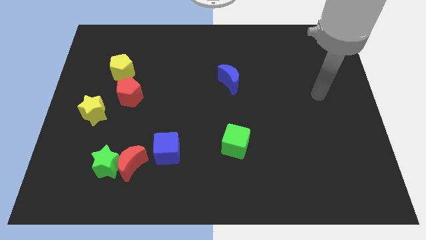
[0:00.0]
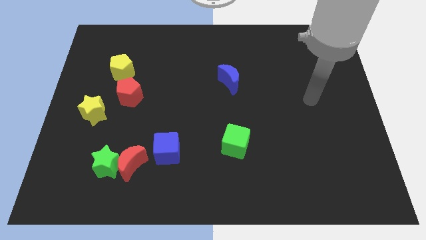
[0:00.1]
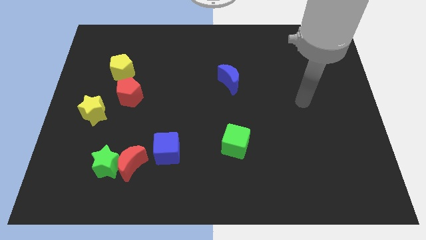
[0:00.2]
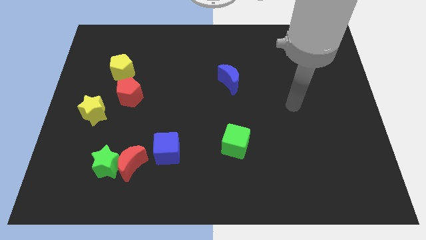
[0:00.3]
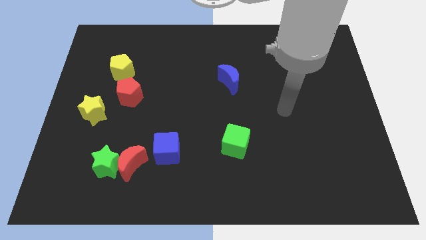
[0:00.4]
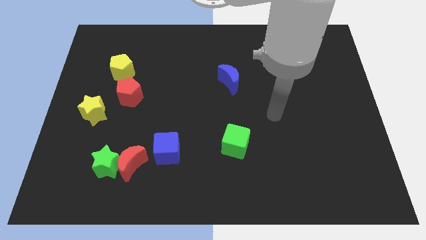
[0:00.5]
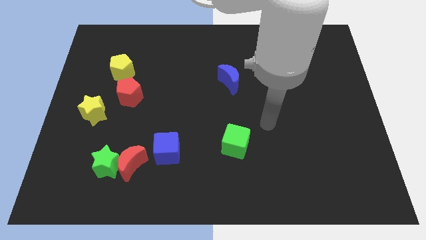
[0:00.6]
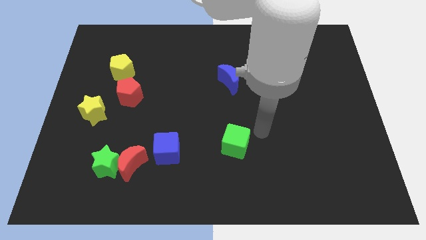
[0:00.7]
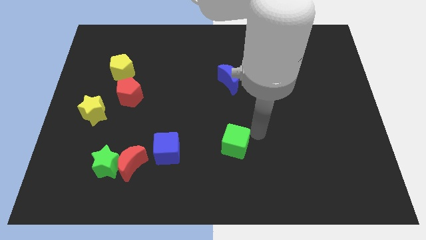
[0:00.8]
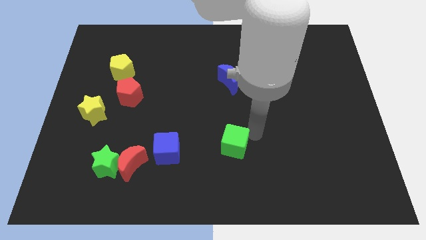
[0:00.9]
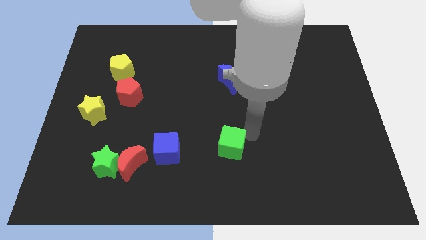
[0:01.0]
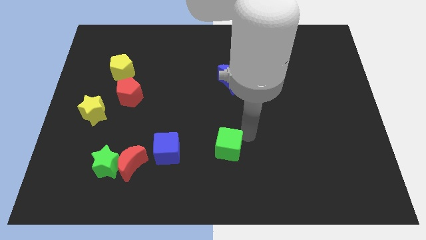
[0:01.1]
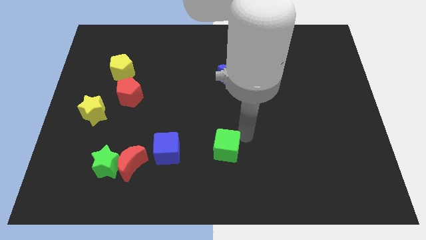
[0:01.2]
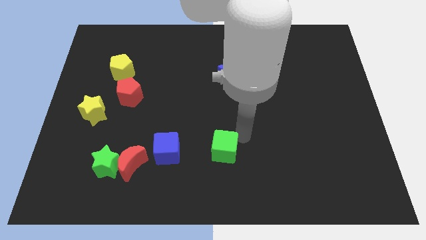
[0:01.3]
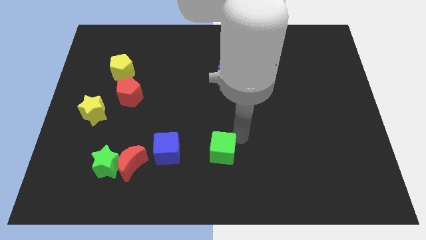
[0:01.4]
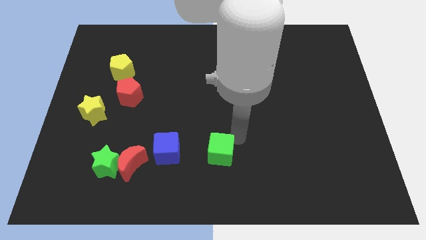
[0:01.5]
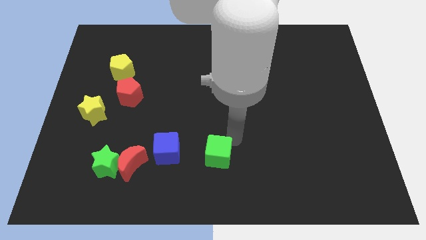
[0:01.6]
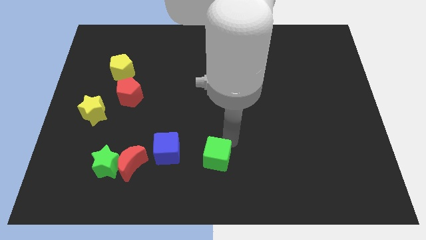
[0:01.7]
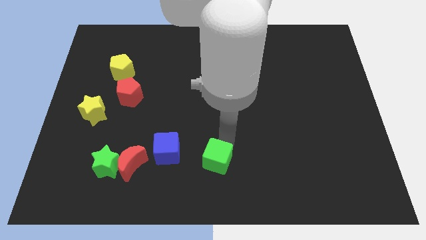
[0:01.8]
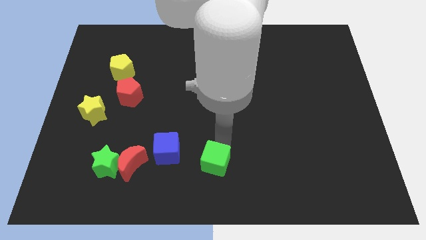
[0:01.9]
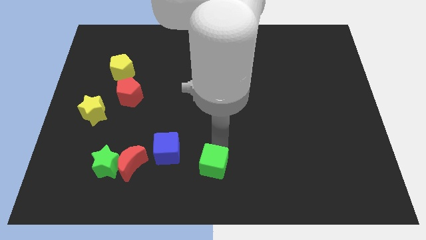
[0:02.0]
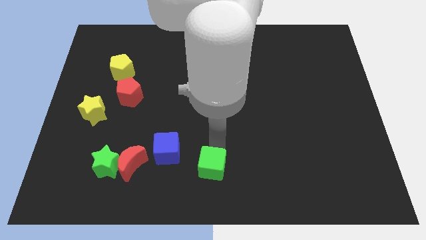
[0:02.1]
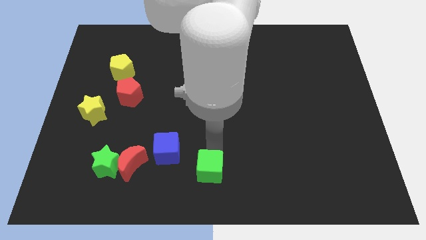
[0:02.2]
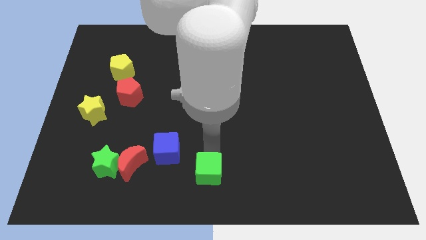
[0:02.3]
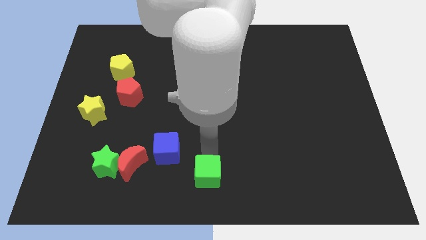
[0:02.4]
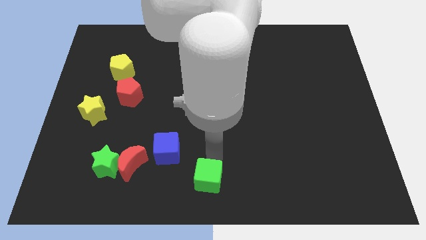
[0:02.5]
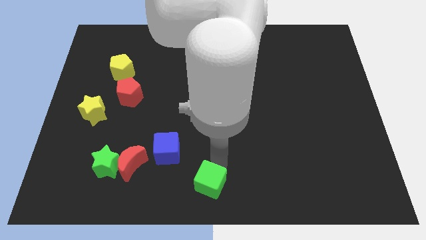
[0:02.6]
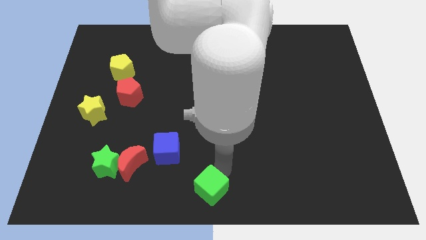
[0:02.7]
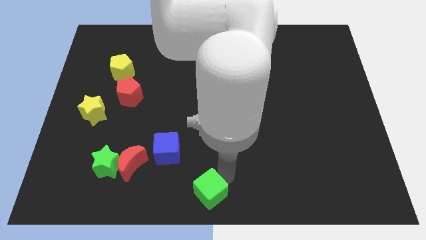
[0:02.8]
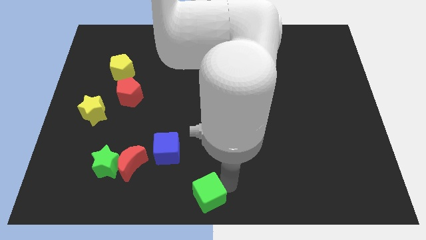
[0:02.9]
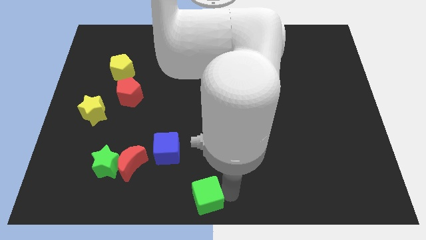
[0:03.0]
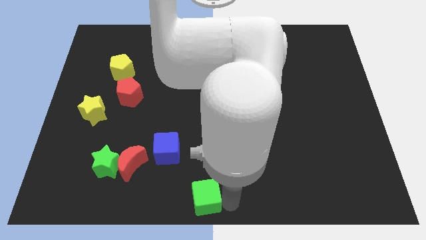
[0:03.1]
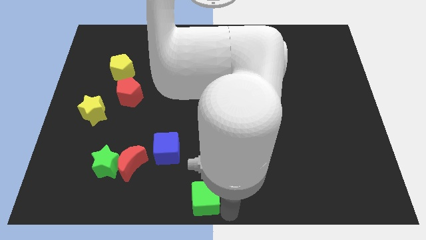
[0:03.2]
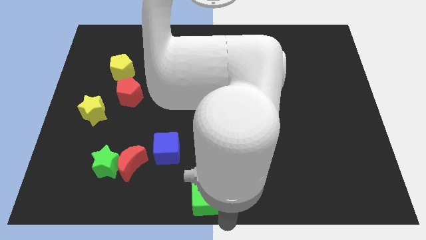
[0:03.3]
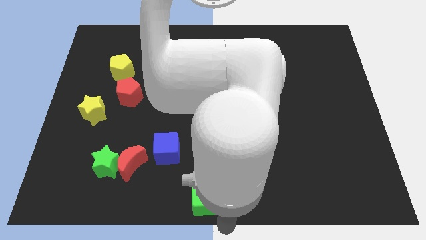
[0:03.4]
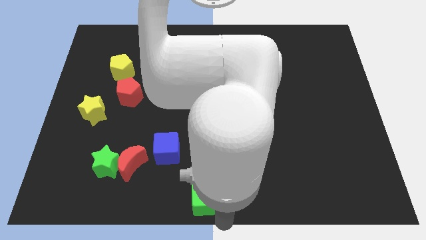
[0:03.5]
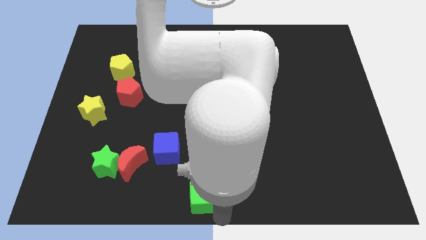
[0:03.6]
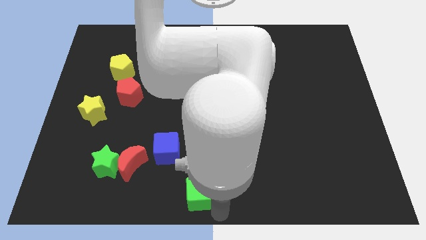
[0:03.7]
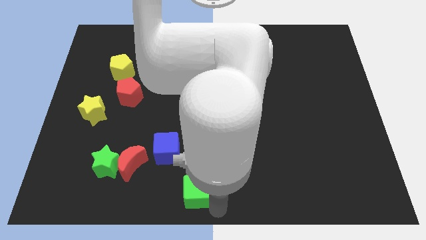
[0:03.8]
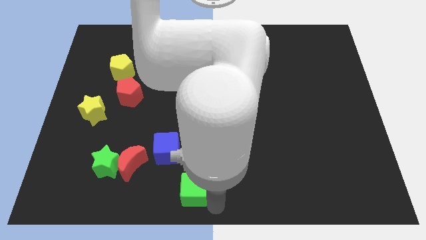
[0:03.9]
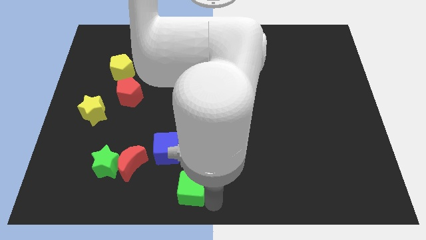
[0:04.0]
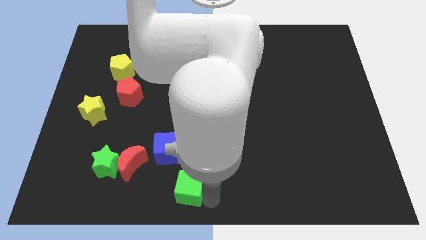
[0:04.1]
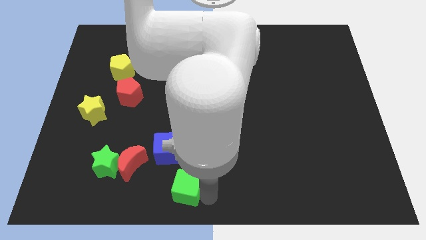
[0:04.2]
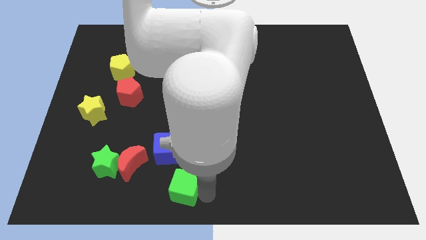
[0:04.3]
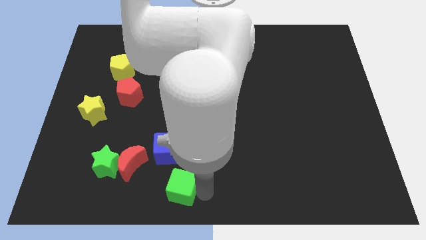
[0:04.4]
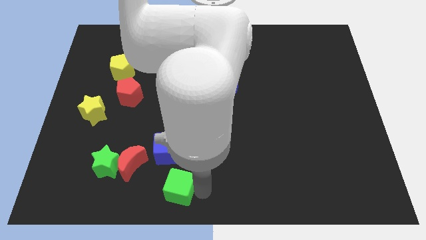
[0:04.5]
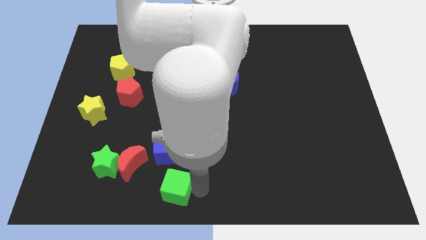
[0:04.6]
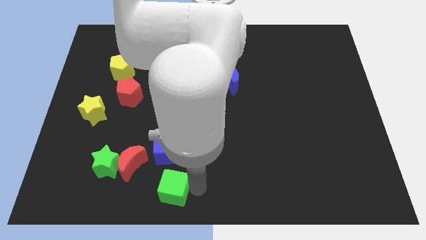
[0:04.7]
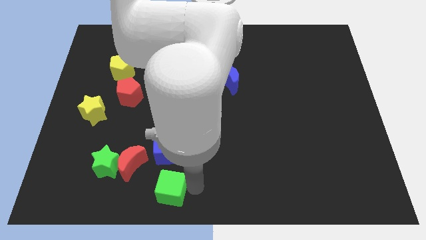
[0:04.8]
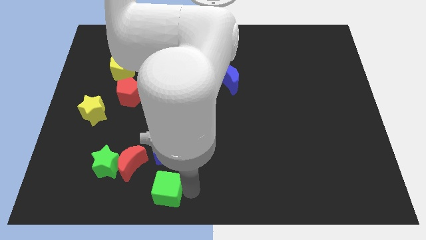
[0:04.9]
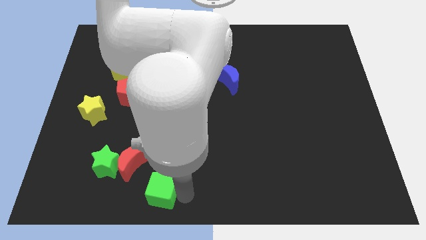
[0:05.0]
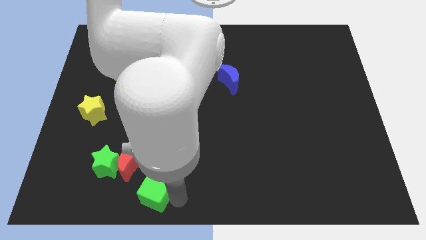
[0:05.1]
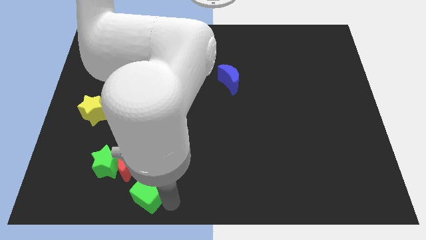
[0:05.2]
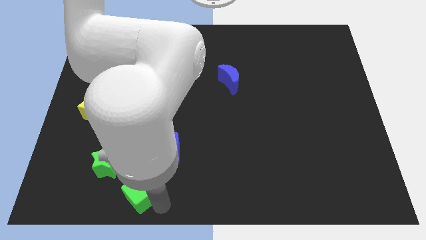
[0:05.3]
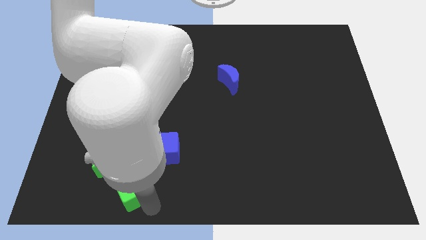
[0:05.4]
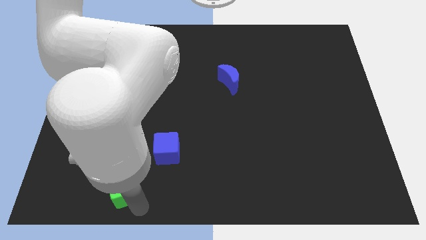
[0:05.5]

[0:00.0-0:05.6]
move the green cube close to the red moon

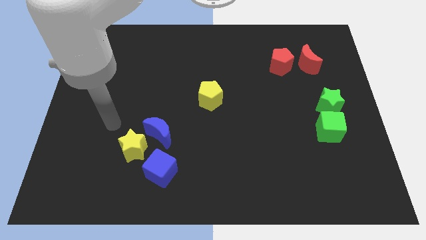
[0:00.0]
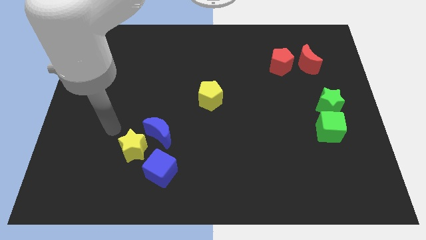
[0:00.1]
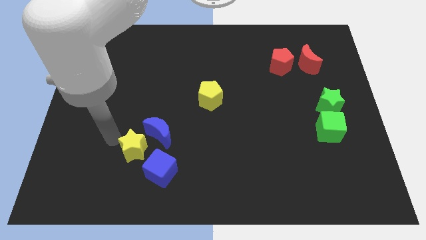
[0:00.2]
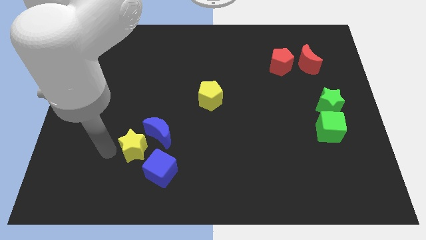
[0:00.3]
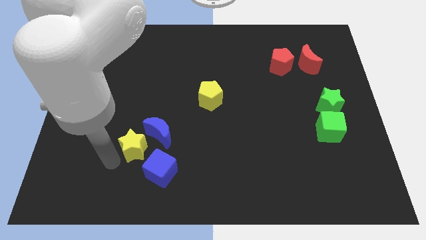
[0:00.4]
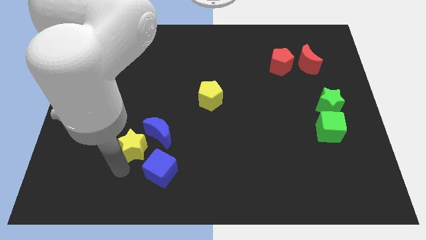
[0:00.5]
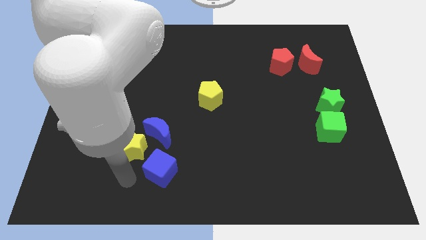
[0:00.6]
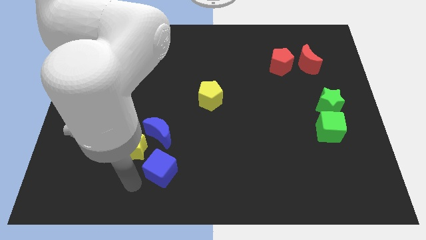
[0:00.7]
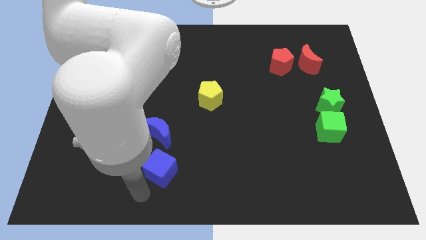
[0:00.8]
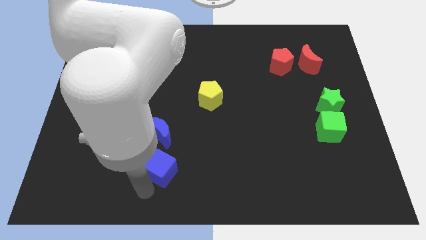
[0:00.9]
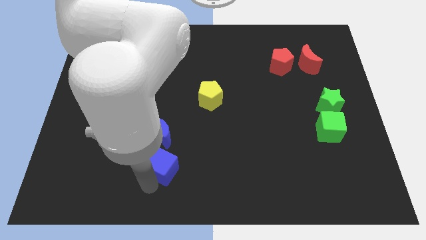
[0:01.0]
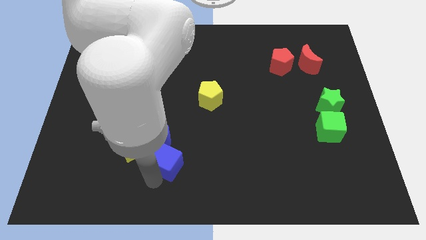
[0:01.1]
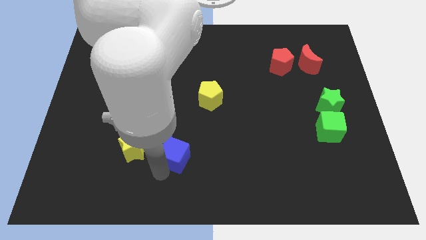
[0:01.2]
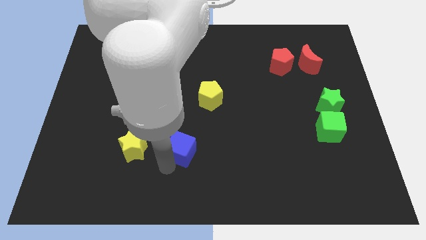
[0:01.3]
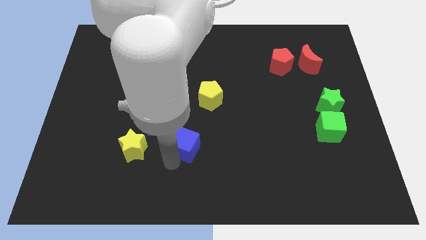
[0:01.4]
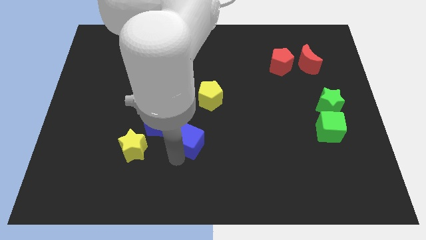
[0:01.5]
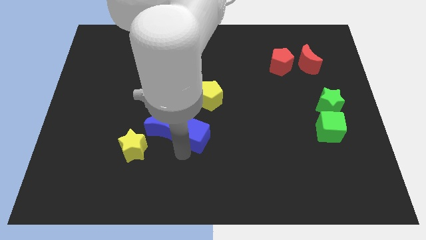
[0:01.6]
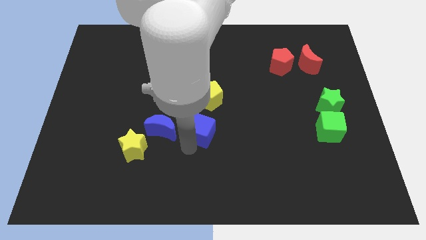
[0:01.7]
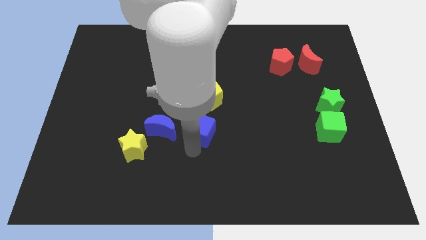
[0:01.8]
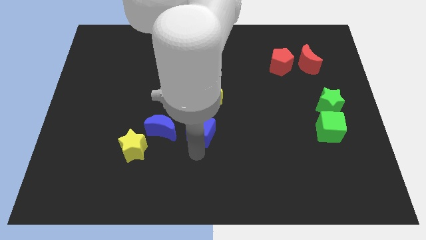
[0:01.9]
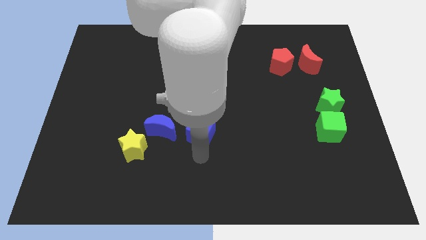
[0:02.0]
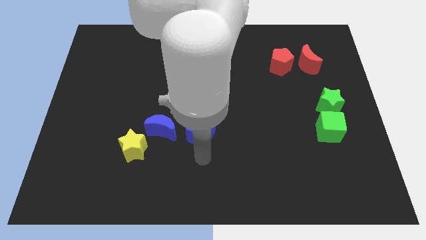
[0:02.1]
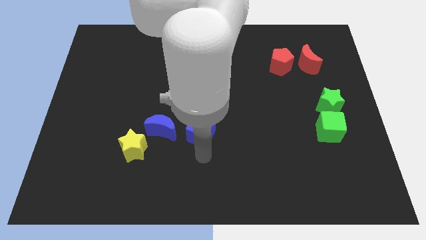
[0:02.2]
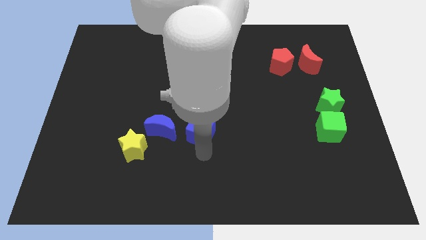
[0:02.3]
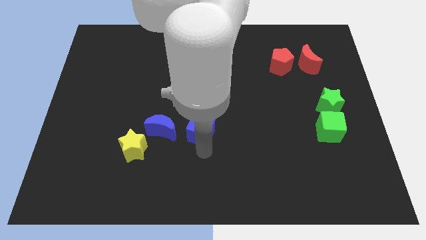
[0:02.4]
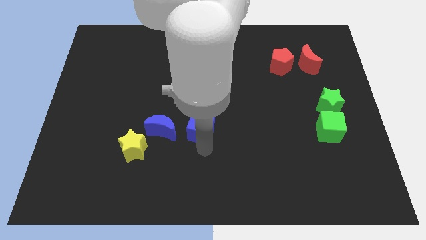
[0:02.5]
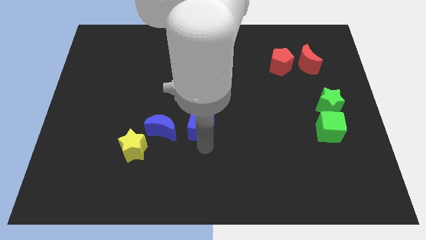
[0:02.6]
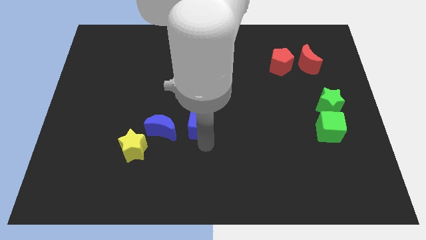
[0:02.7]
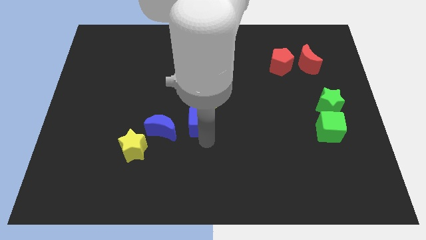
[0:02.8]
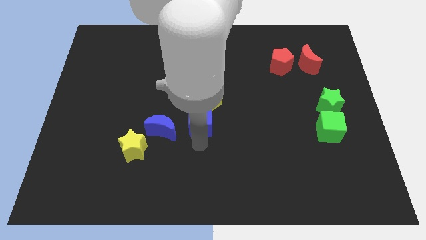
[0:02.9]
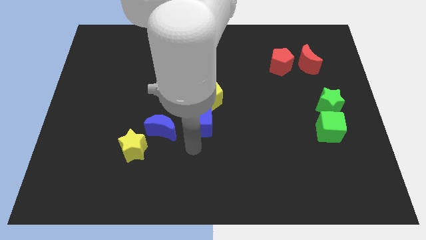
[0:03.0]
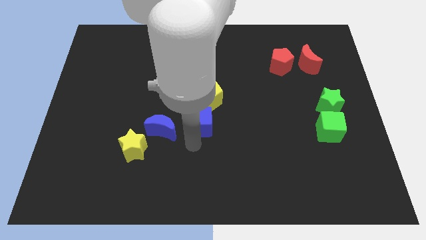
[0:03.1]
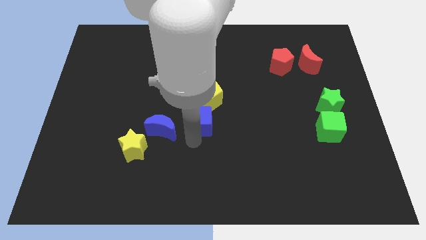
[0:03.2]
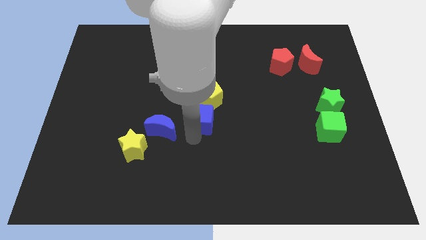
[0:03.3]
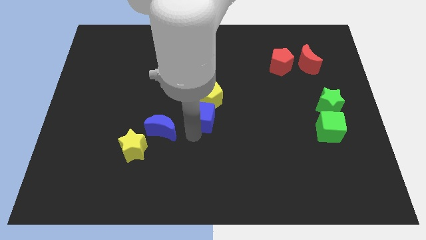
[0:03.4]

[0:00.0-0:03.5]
put the blue cube to the yellow pentagon
